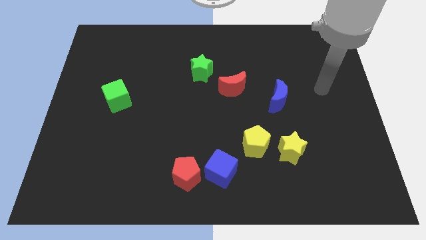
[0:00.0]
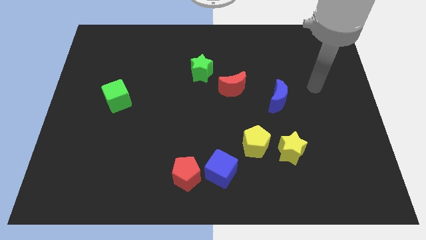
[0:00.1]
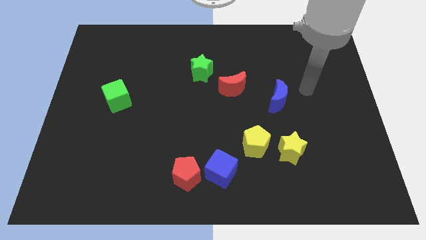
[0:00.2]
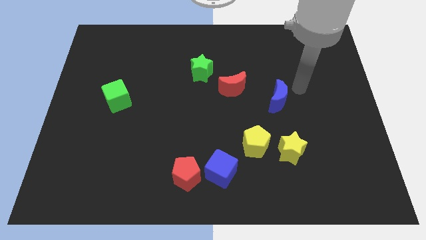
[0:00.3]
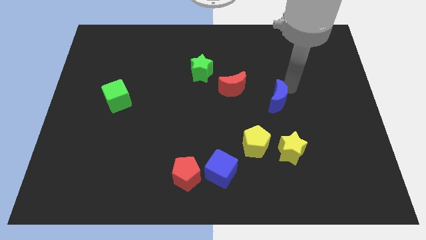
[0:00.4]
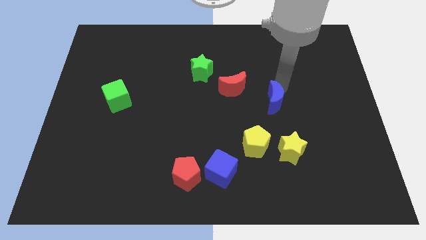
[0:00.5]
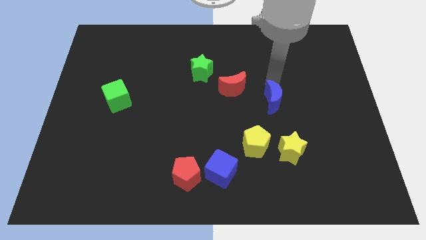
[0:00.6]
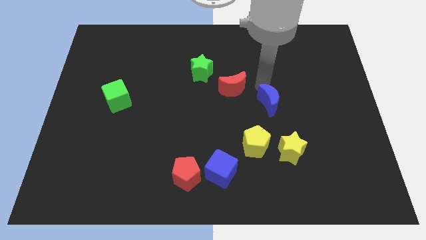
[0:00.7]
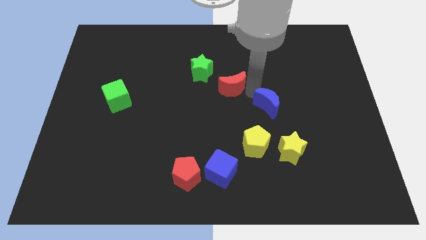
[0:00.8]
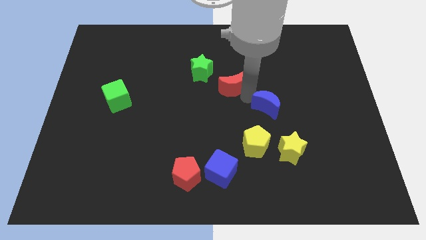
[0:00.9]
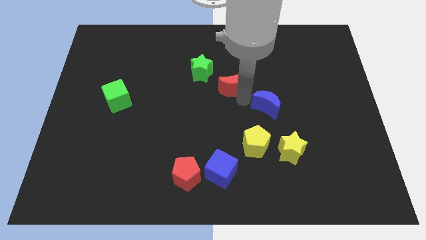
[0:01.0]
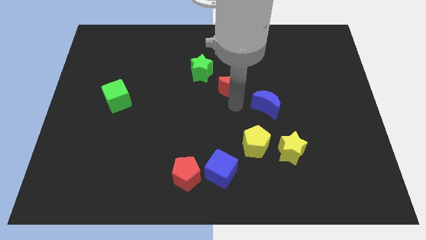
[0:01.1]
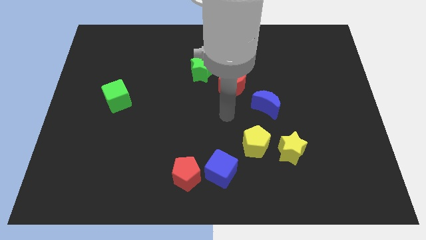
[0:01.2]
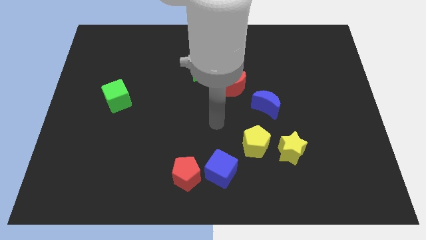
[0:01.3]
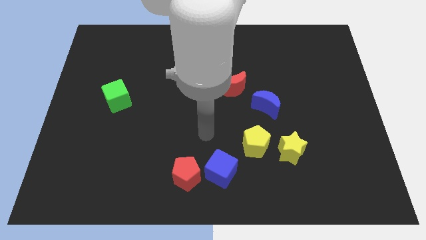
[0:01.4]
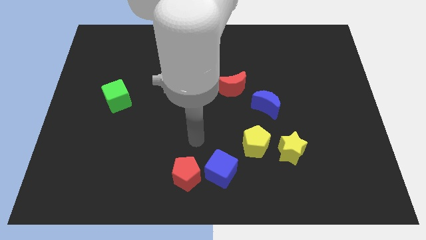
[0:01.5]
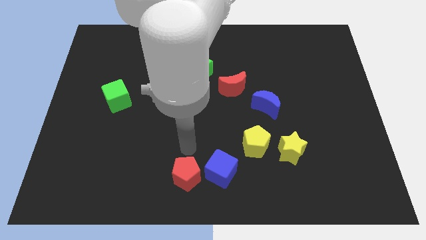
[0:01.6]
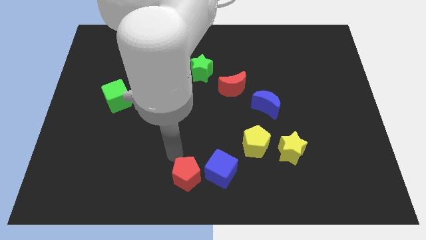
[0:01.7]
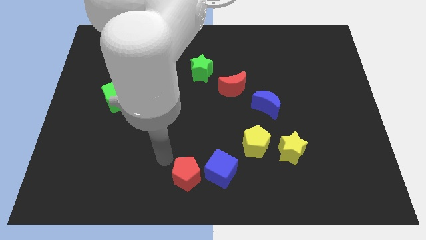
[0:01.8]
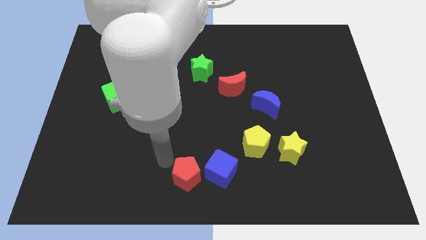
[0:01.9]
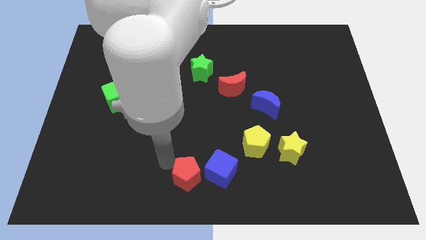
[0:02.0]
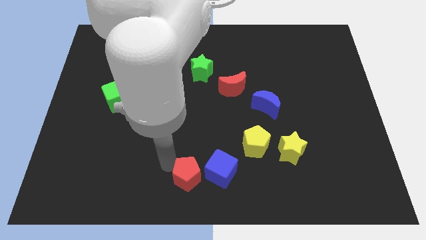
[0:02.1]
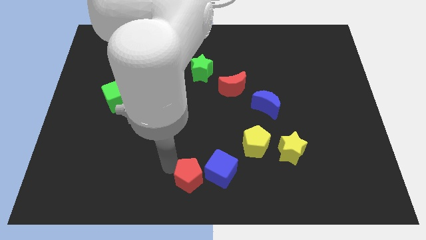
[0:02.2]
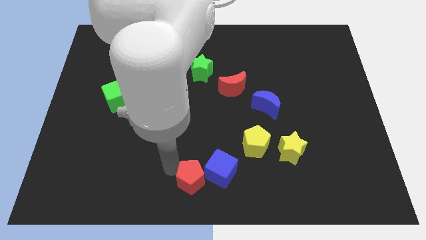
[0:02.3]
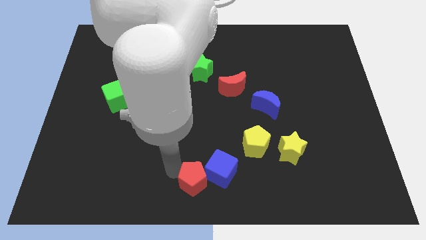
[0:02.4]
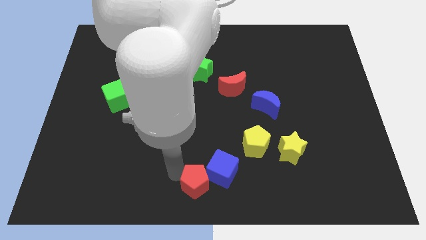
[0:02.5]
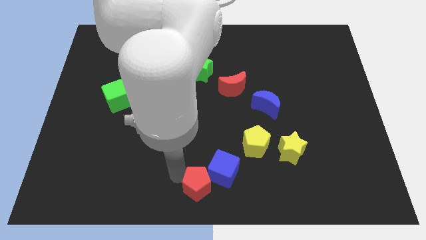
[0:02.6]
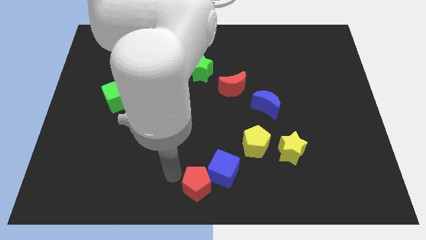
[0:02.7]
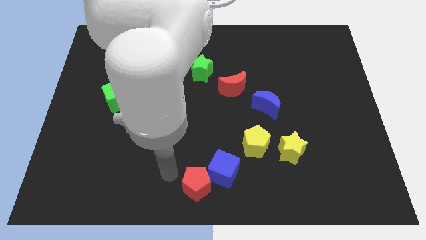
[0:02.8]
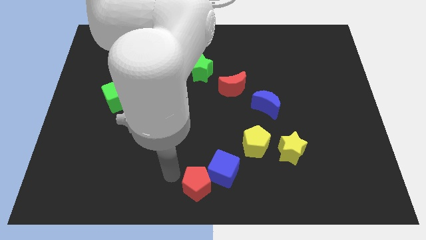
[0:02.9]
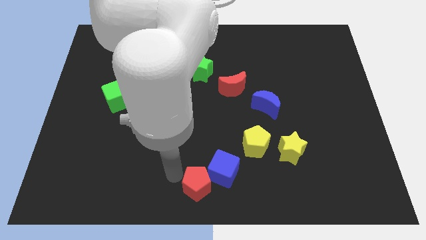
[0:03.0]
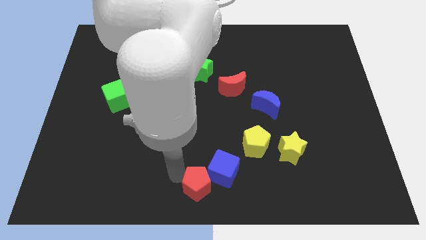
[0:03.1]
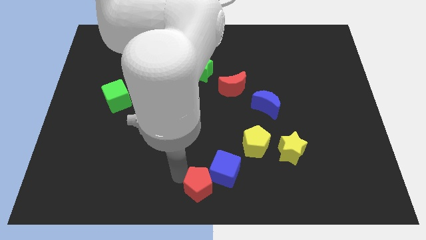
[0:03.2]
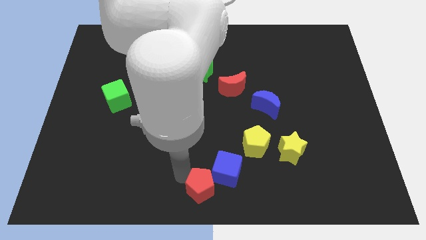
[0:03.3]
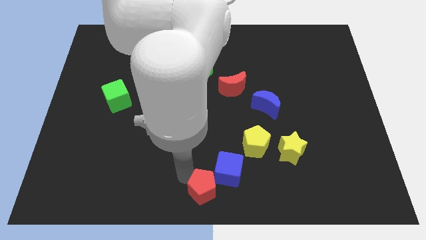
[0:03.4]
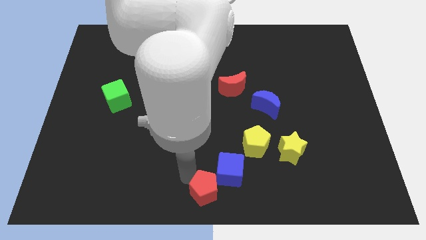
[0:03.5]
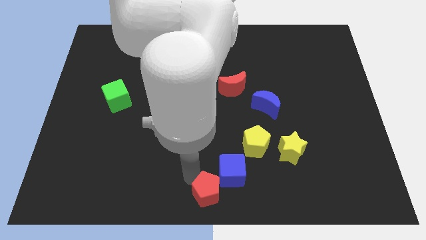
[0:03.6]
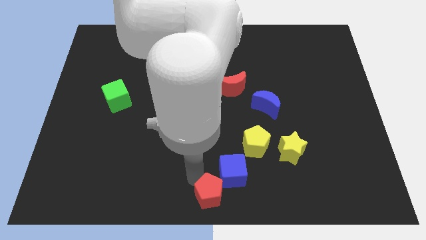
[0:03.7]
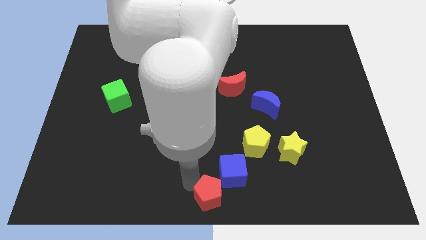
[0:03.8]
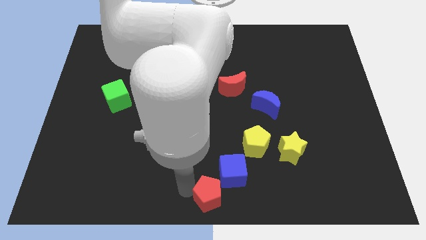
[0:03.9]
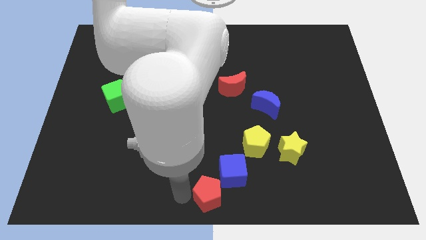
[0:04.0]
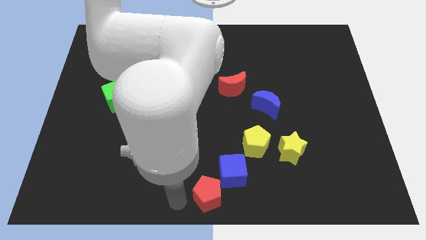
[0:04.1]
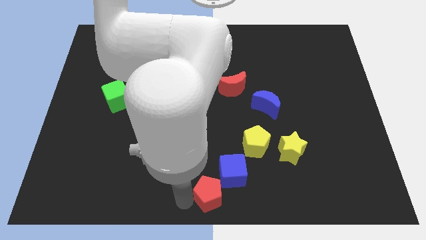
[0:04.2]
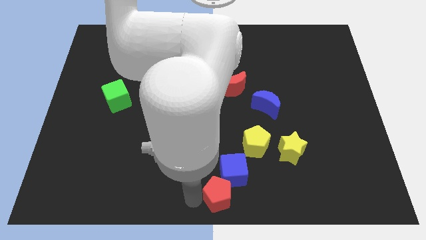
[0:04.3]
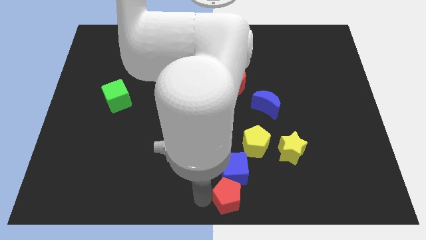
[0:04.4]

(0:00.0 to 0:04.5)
push the red pentagon to the right a little bit

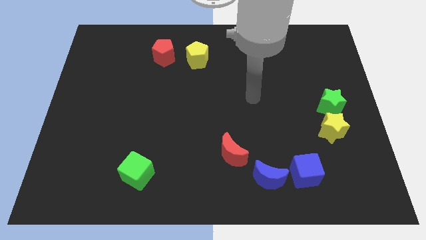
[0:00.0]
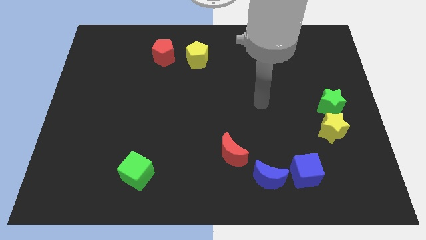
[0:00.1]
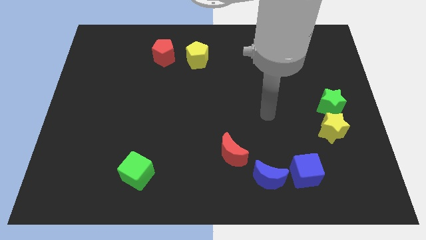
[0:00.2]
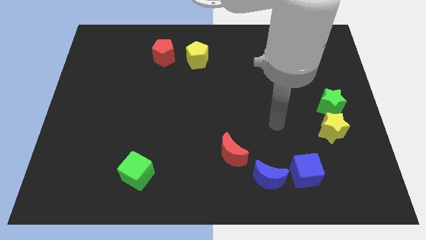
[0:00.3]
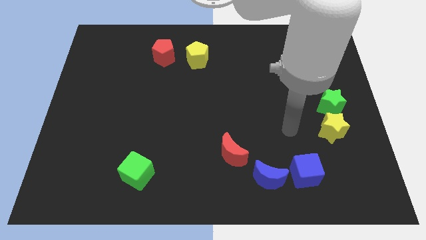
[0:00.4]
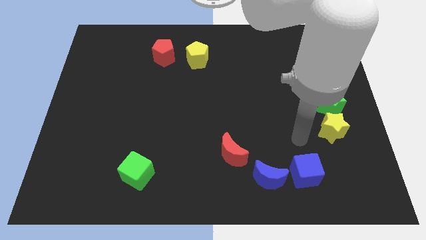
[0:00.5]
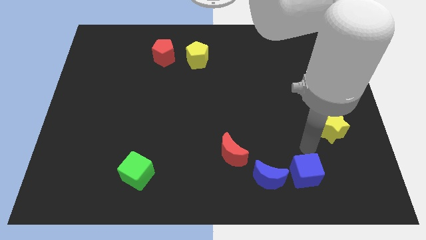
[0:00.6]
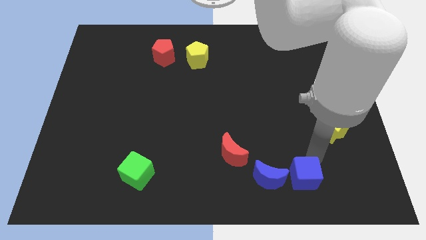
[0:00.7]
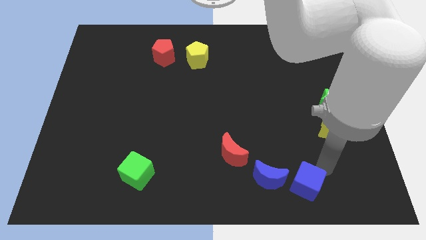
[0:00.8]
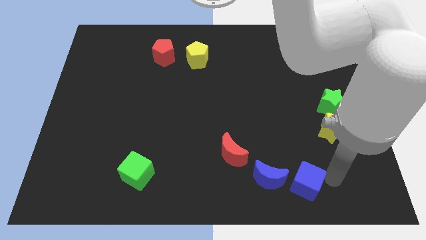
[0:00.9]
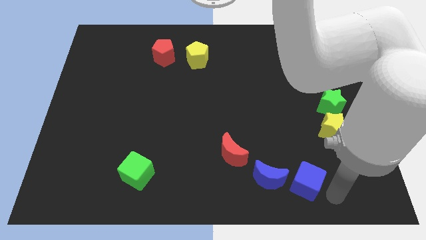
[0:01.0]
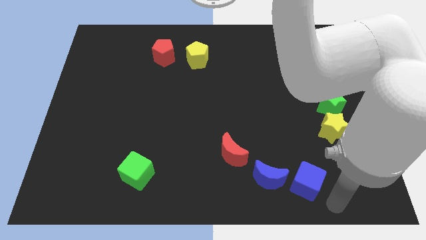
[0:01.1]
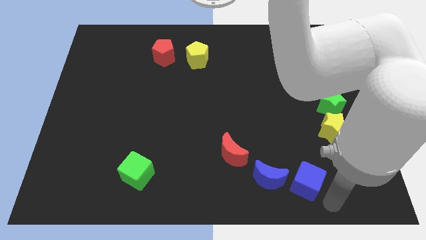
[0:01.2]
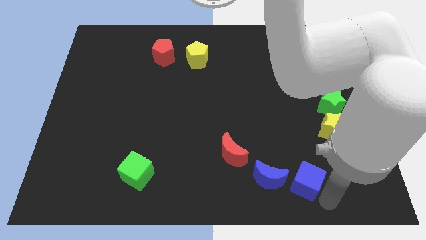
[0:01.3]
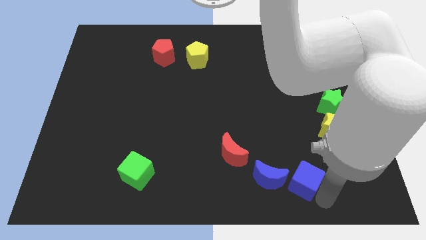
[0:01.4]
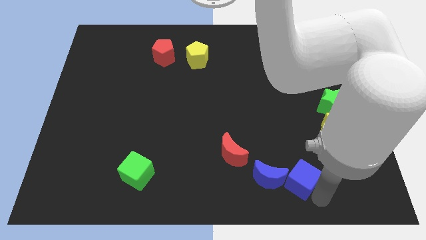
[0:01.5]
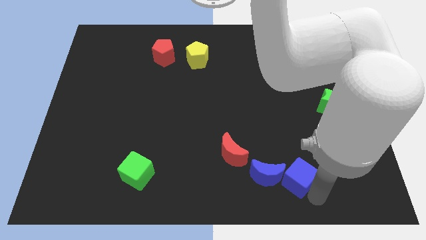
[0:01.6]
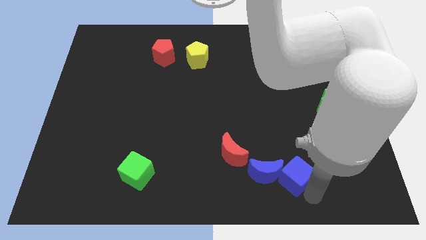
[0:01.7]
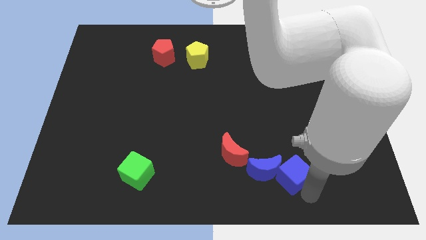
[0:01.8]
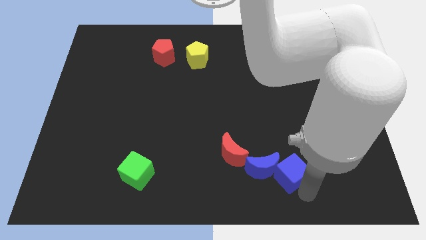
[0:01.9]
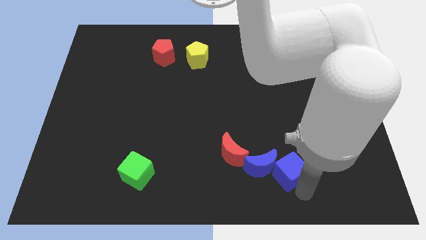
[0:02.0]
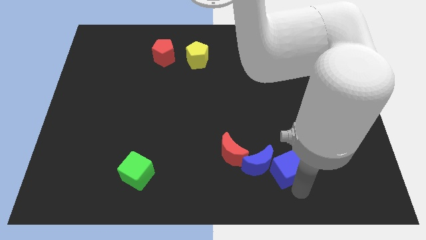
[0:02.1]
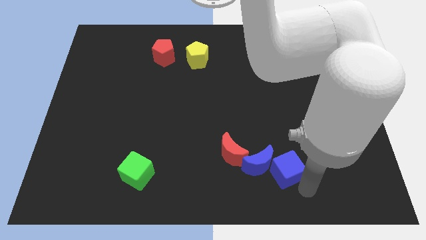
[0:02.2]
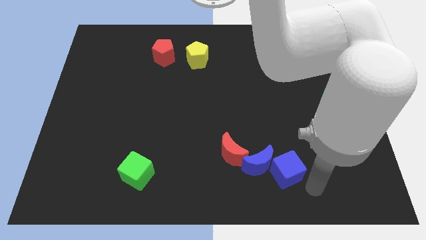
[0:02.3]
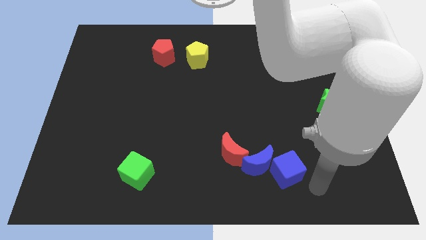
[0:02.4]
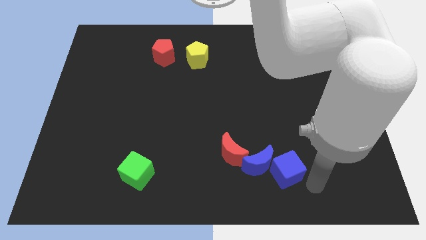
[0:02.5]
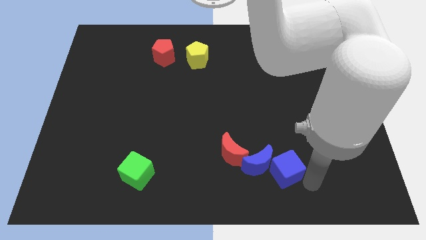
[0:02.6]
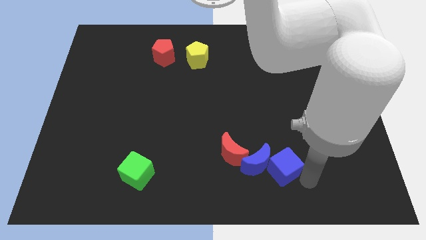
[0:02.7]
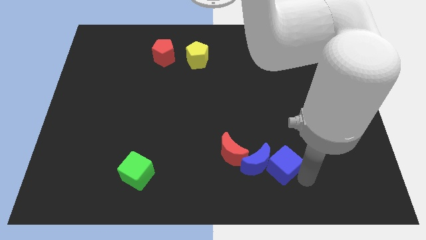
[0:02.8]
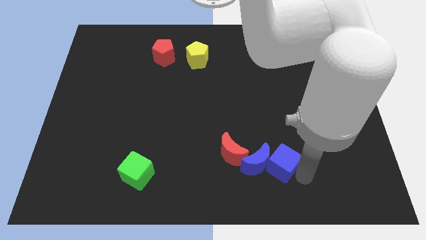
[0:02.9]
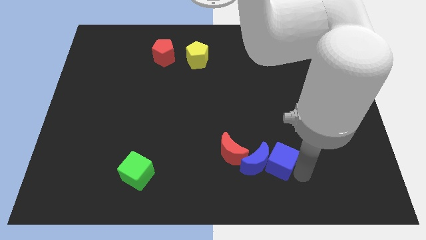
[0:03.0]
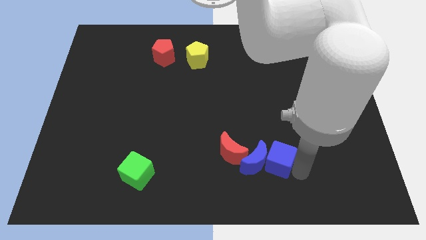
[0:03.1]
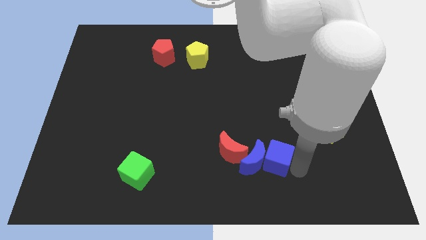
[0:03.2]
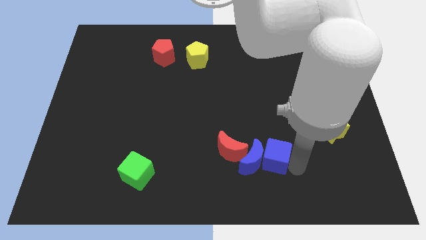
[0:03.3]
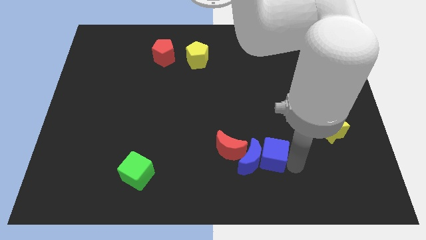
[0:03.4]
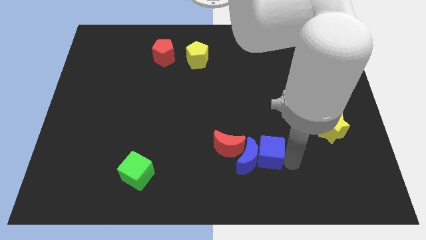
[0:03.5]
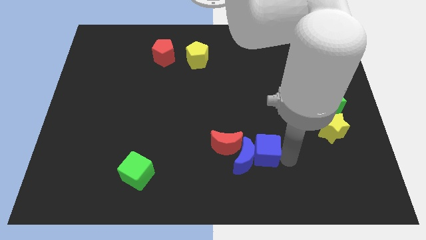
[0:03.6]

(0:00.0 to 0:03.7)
slightly move the blue cube to the left

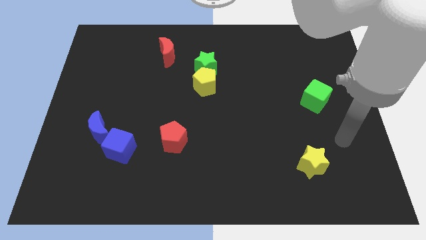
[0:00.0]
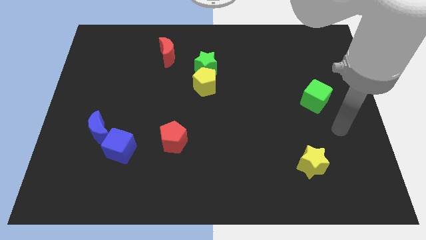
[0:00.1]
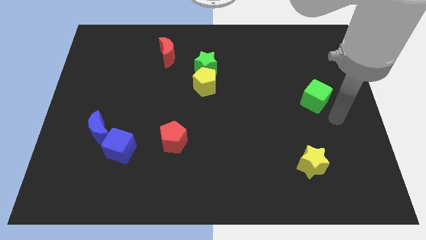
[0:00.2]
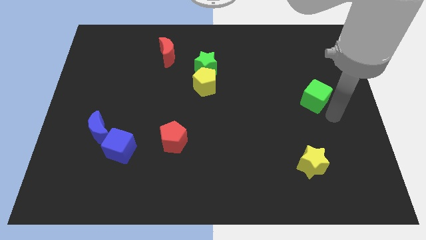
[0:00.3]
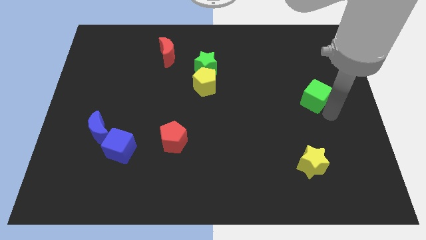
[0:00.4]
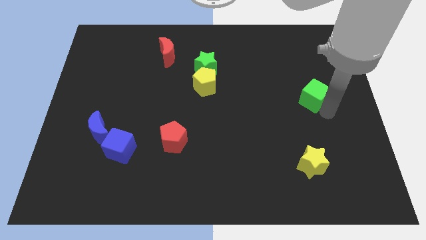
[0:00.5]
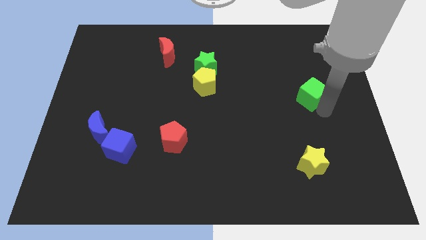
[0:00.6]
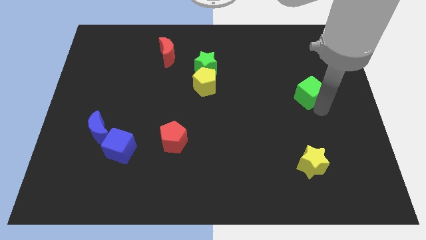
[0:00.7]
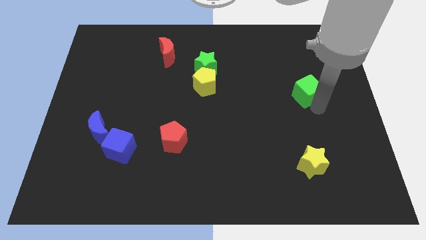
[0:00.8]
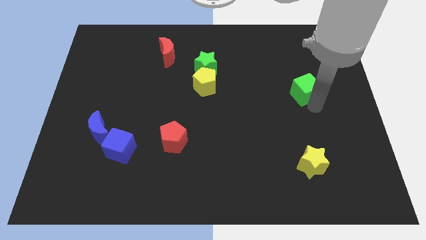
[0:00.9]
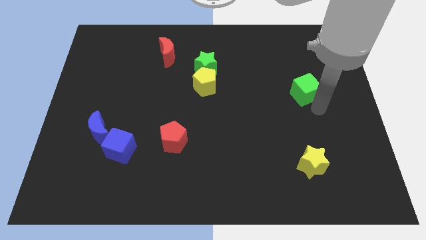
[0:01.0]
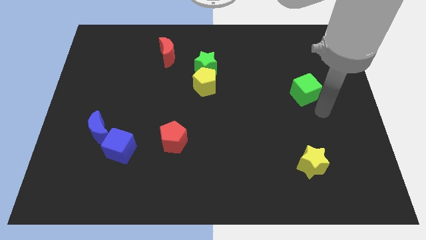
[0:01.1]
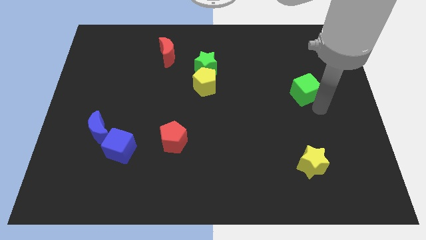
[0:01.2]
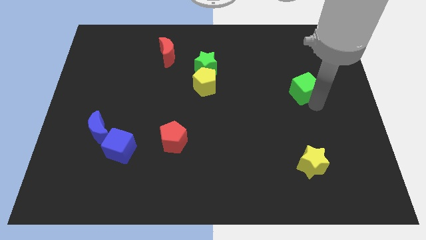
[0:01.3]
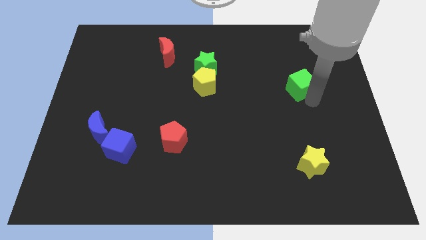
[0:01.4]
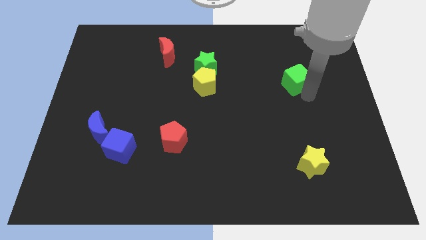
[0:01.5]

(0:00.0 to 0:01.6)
push the green cube upwards and to the left somewhat
